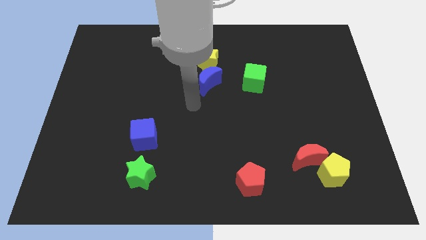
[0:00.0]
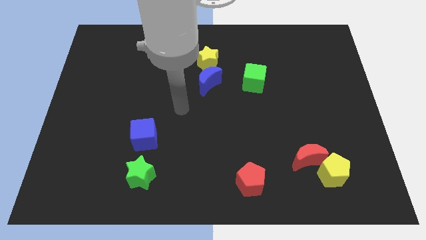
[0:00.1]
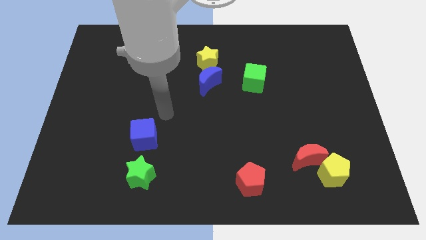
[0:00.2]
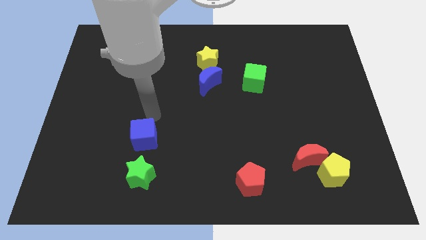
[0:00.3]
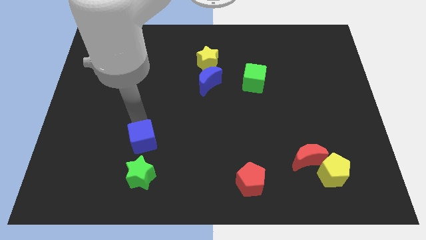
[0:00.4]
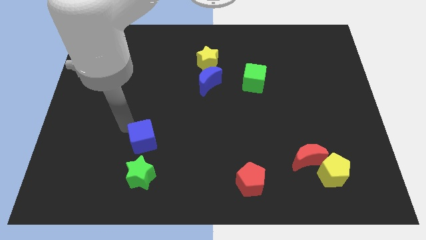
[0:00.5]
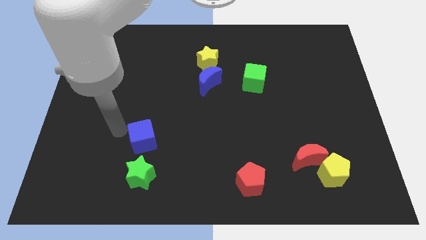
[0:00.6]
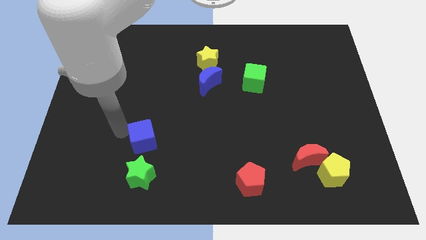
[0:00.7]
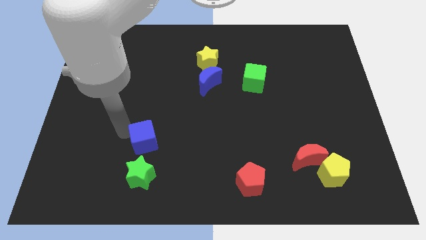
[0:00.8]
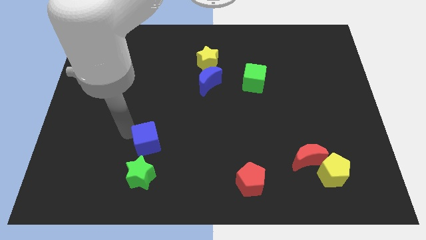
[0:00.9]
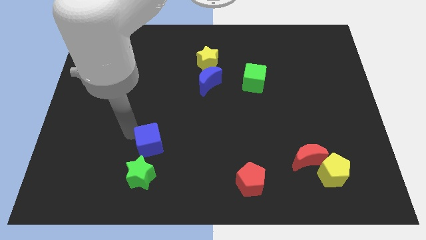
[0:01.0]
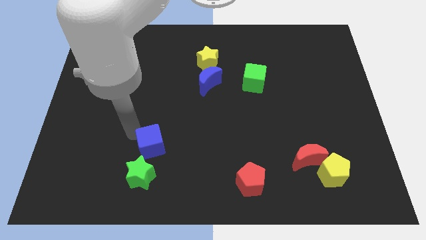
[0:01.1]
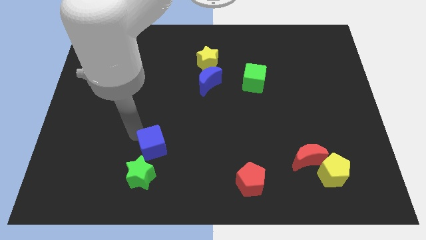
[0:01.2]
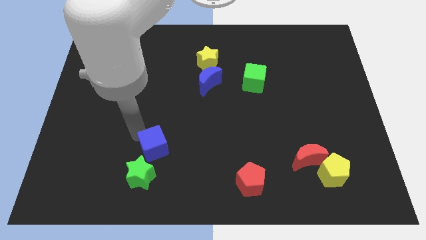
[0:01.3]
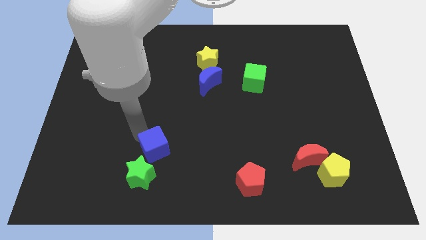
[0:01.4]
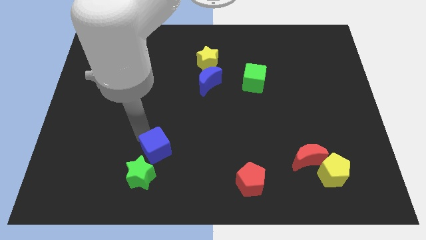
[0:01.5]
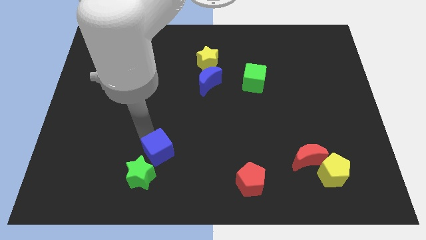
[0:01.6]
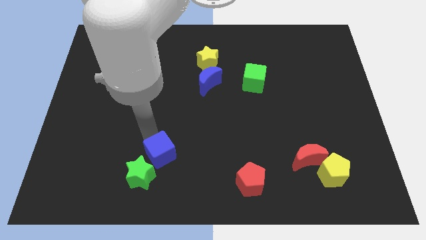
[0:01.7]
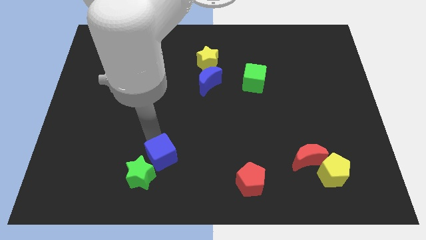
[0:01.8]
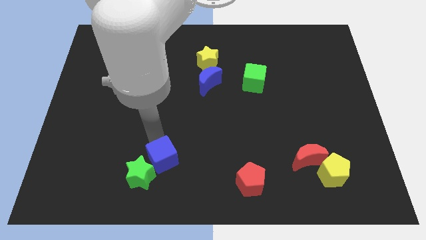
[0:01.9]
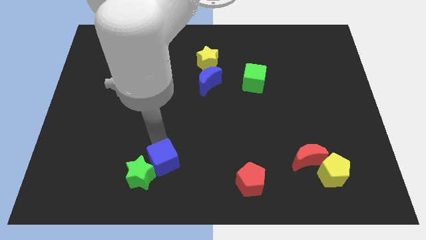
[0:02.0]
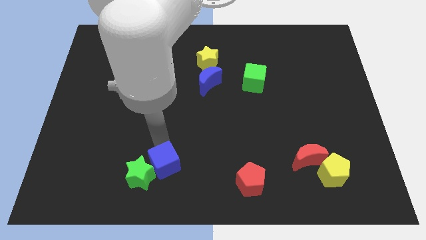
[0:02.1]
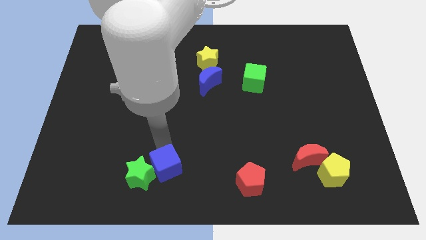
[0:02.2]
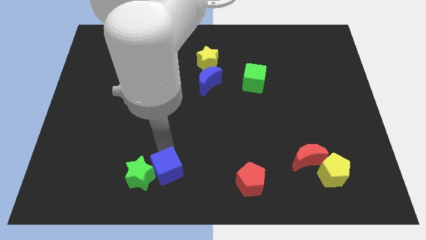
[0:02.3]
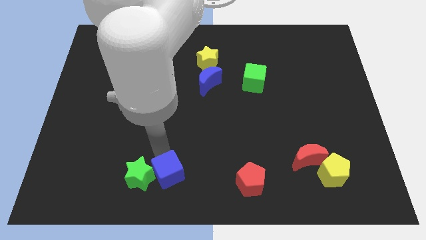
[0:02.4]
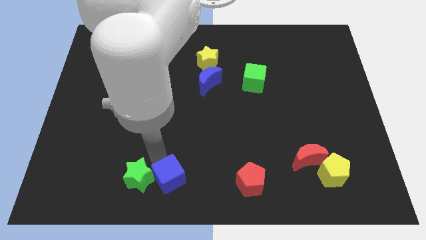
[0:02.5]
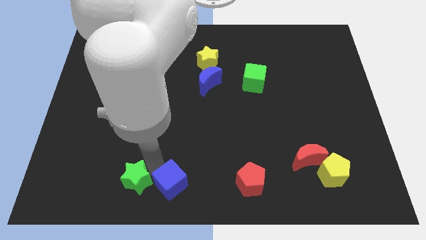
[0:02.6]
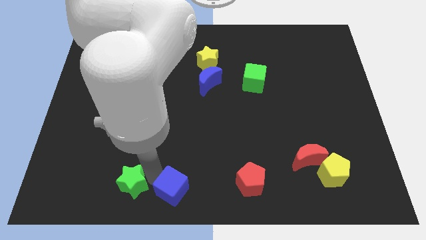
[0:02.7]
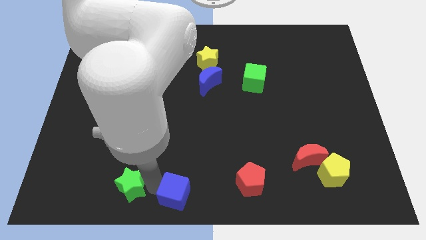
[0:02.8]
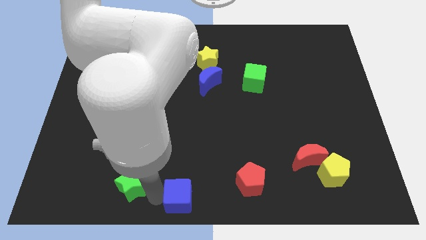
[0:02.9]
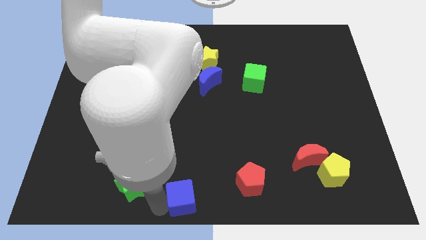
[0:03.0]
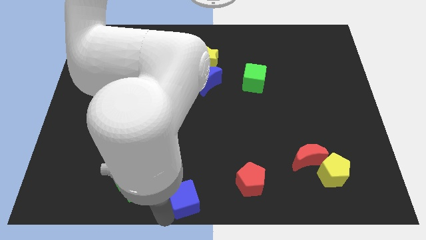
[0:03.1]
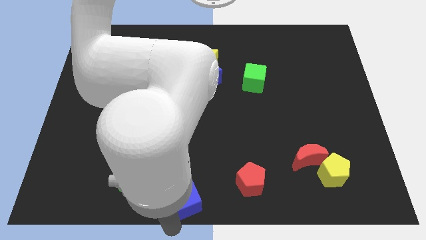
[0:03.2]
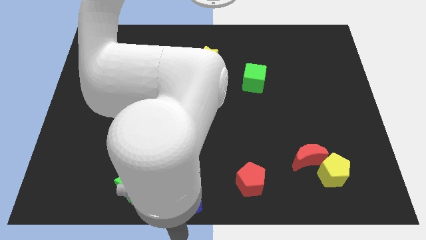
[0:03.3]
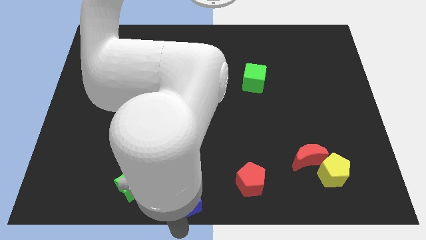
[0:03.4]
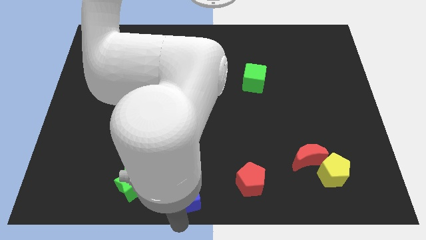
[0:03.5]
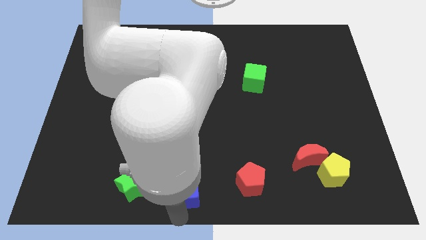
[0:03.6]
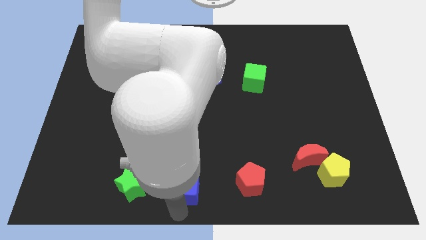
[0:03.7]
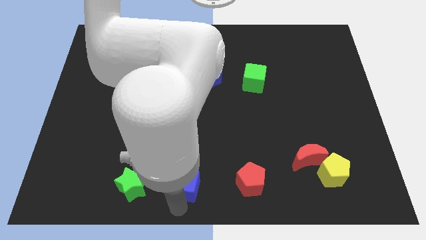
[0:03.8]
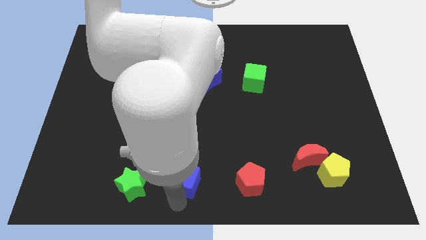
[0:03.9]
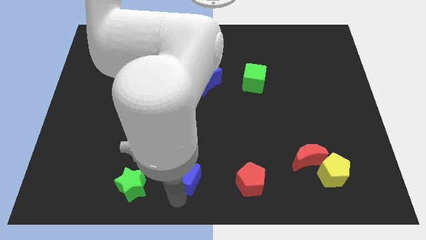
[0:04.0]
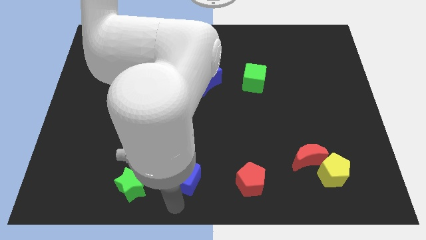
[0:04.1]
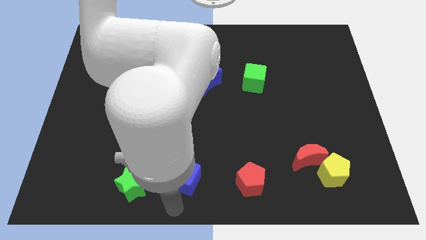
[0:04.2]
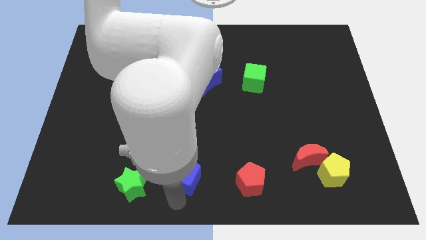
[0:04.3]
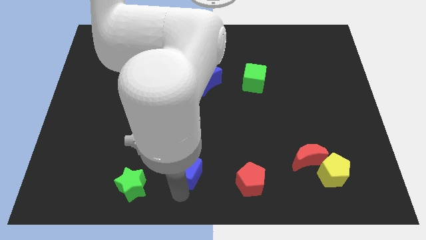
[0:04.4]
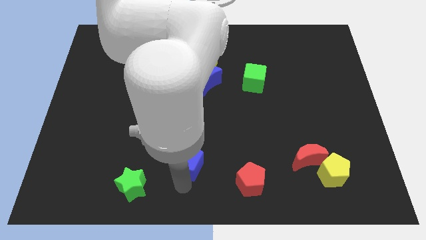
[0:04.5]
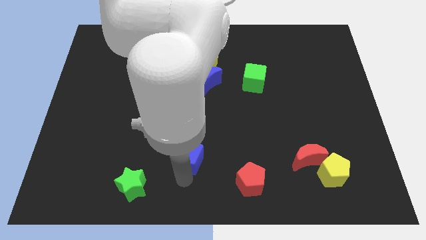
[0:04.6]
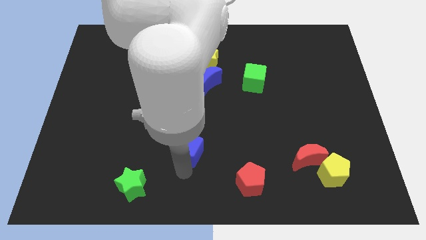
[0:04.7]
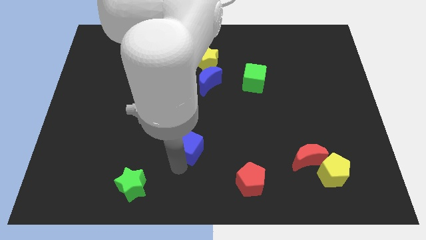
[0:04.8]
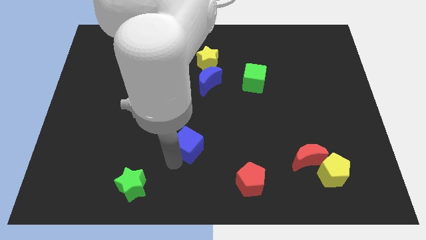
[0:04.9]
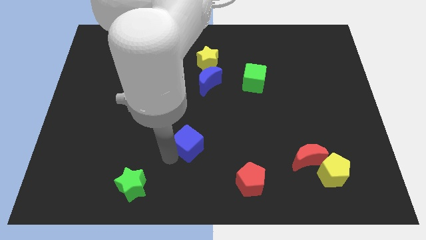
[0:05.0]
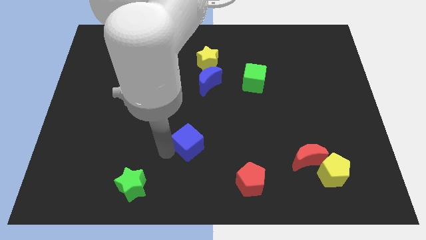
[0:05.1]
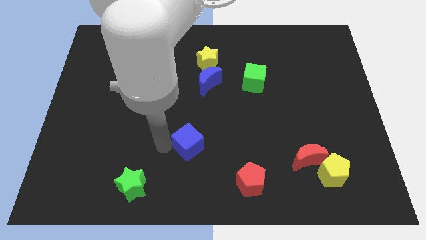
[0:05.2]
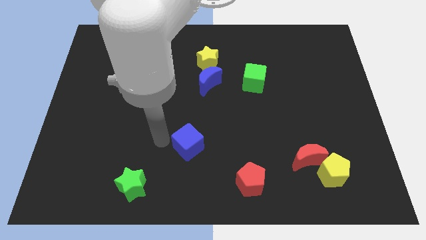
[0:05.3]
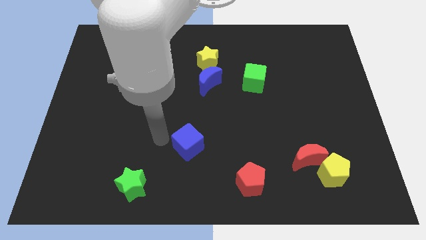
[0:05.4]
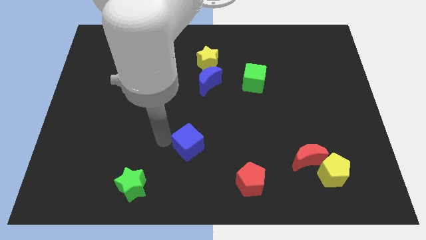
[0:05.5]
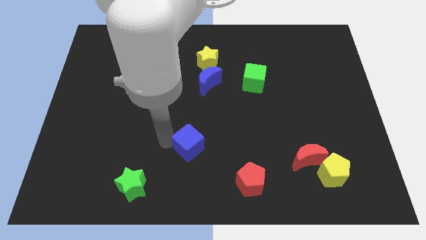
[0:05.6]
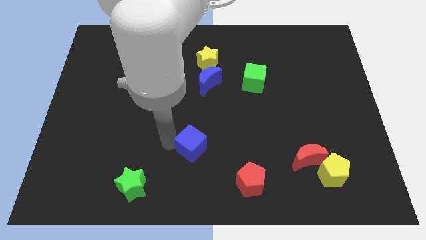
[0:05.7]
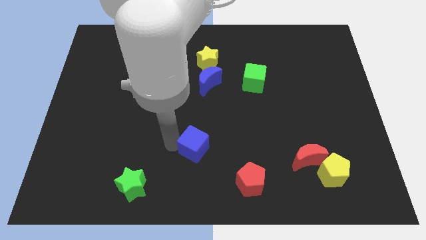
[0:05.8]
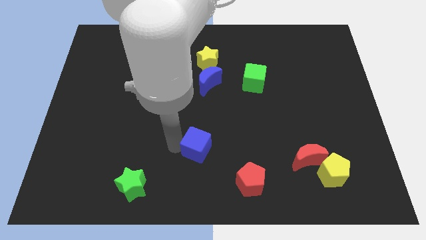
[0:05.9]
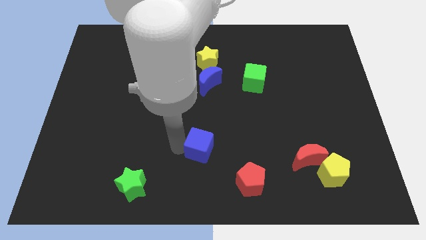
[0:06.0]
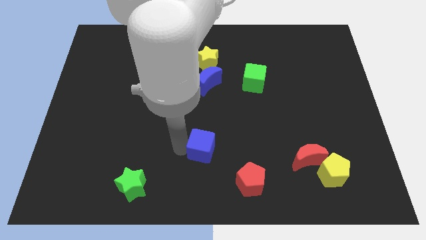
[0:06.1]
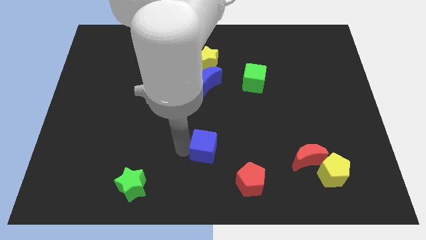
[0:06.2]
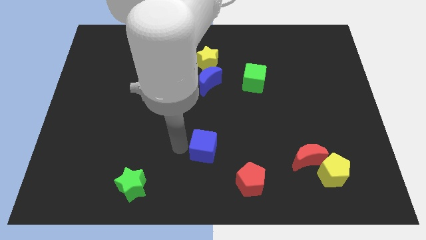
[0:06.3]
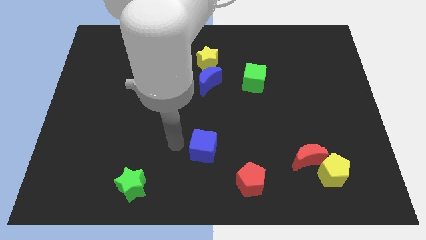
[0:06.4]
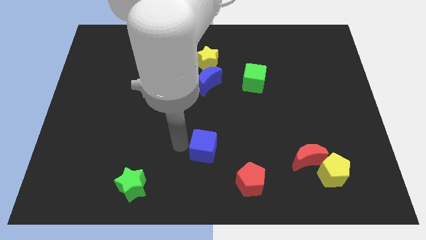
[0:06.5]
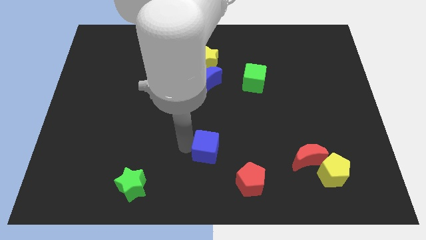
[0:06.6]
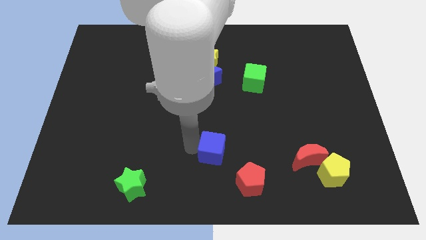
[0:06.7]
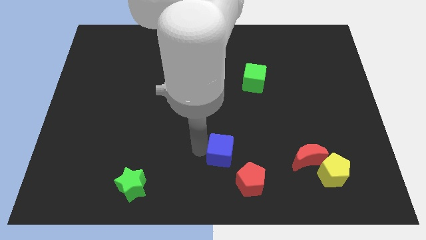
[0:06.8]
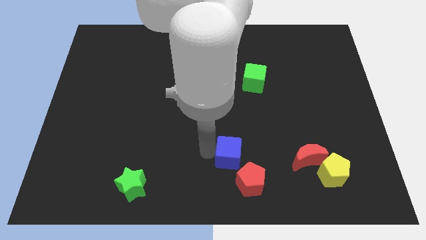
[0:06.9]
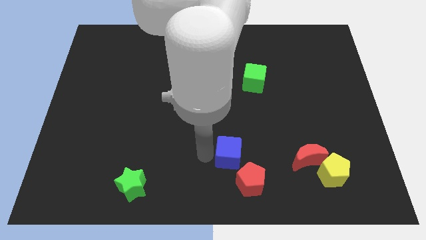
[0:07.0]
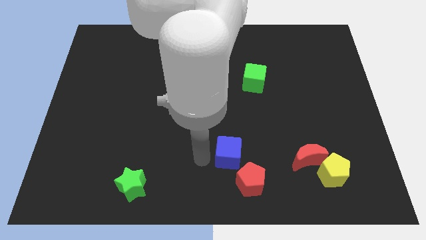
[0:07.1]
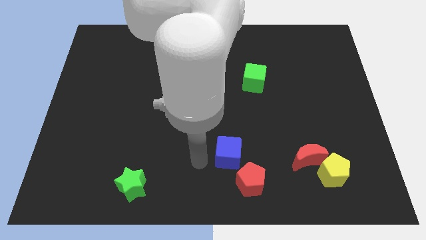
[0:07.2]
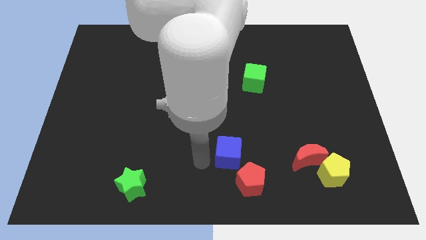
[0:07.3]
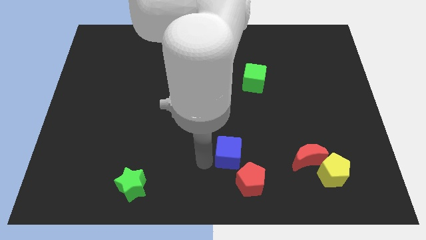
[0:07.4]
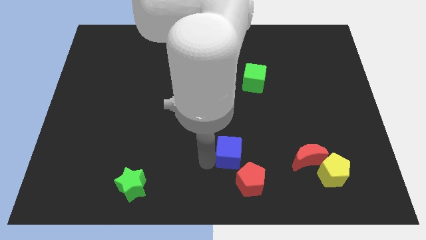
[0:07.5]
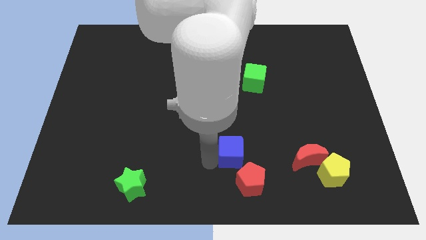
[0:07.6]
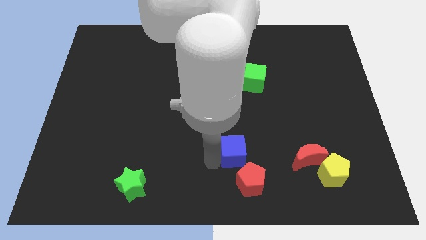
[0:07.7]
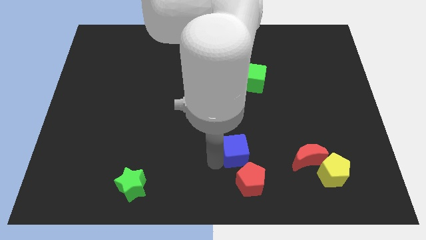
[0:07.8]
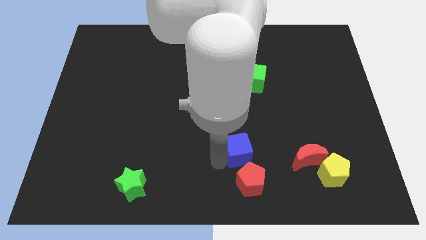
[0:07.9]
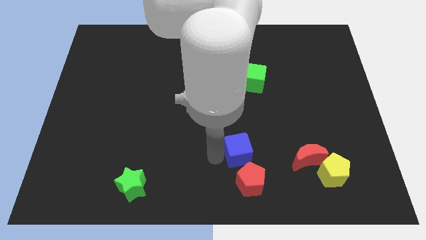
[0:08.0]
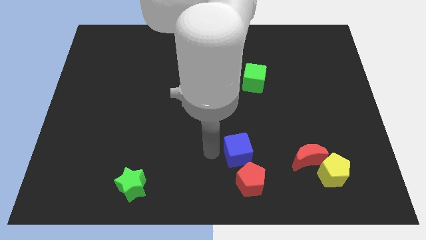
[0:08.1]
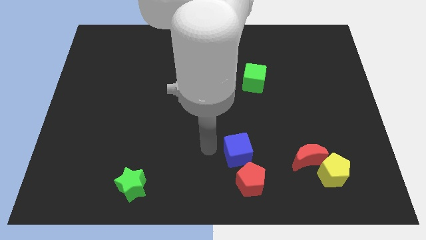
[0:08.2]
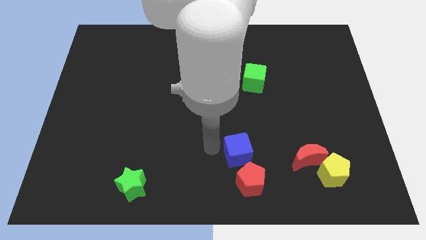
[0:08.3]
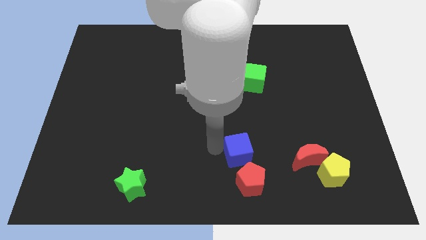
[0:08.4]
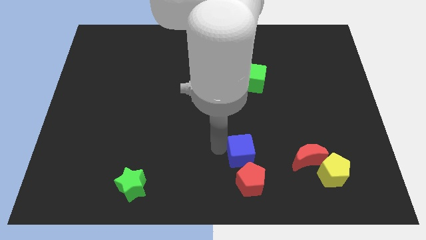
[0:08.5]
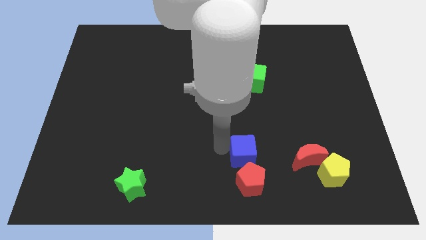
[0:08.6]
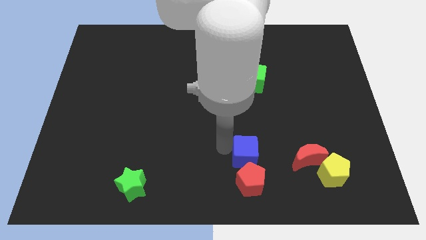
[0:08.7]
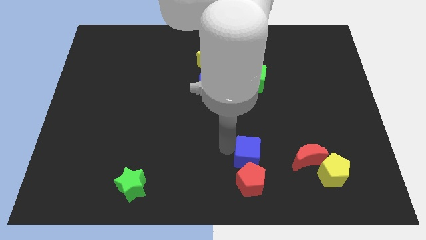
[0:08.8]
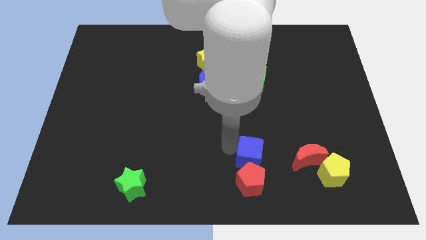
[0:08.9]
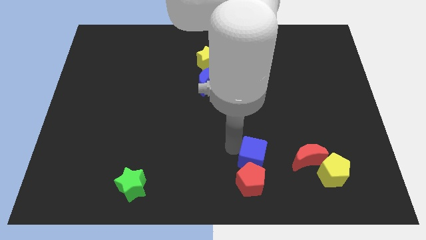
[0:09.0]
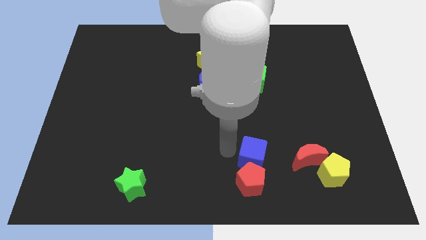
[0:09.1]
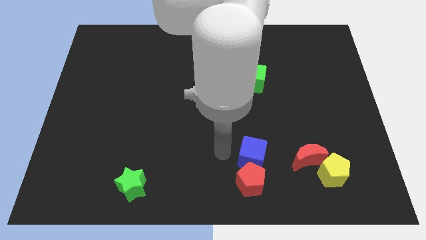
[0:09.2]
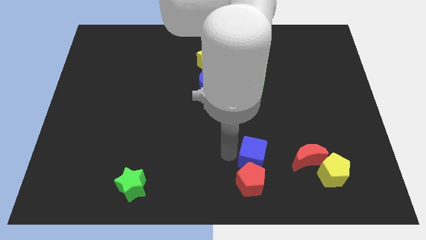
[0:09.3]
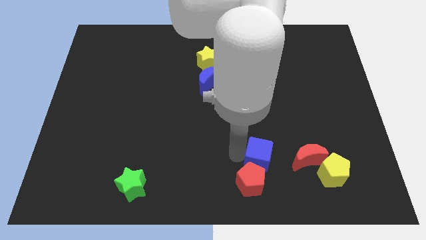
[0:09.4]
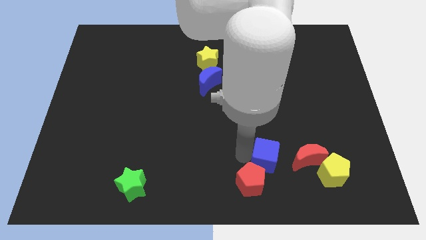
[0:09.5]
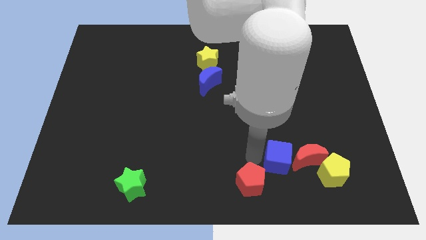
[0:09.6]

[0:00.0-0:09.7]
slide the blue cube towards the red moon
